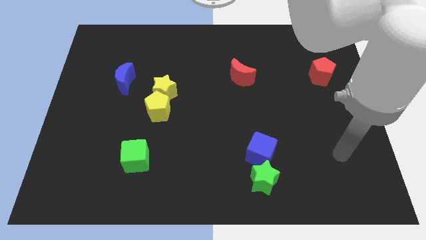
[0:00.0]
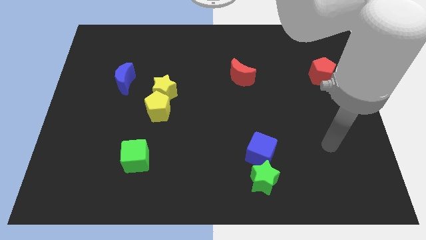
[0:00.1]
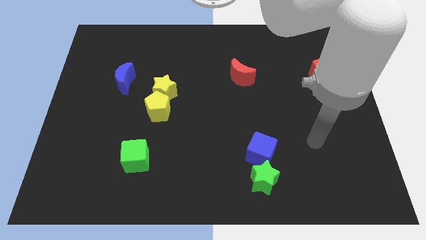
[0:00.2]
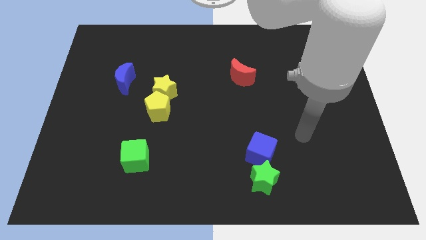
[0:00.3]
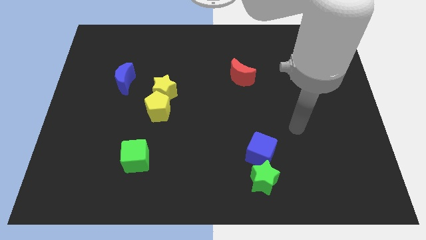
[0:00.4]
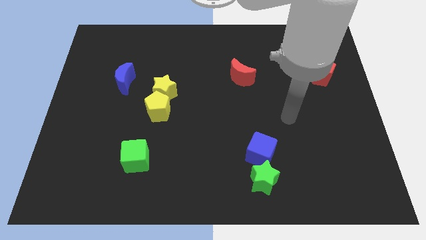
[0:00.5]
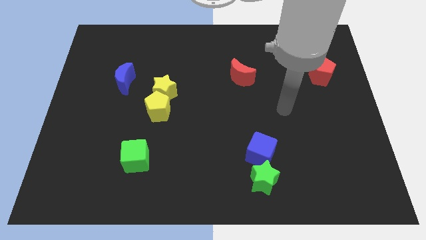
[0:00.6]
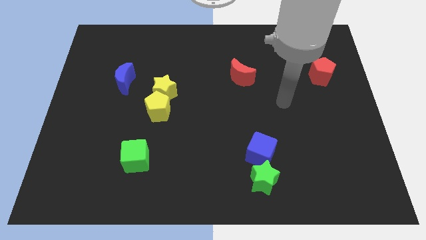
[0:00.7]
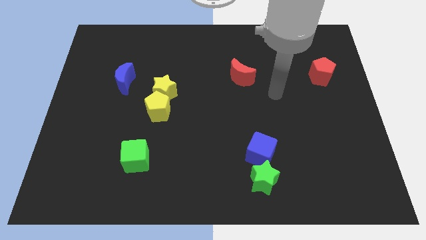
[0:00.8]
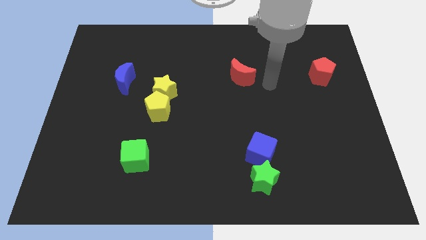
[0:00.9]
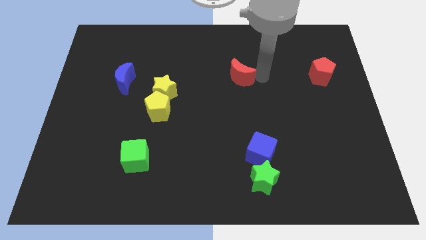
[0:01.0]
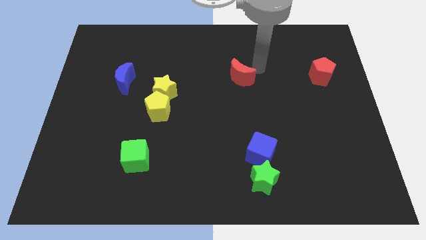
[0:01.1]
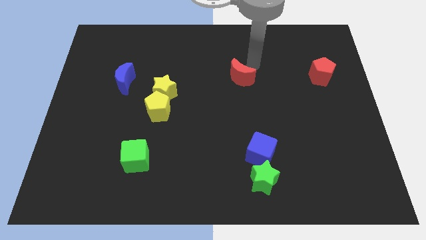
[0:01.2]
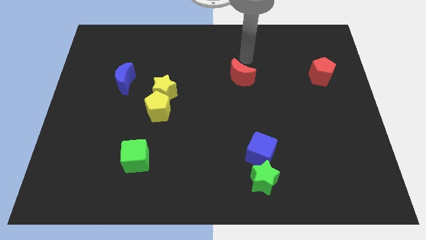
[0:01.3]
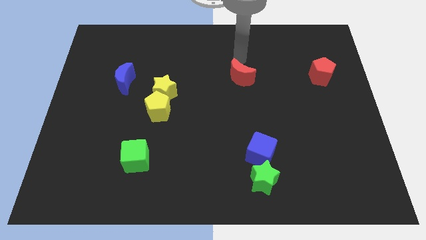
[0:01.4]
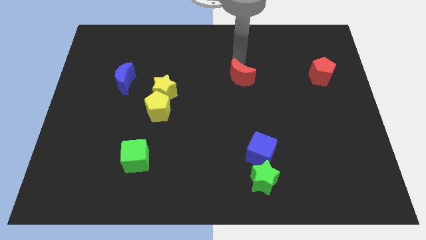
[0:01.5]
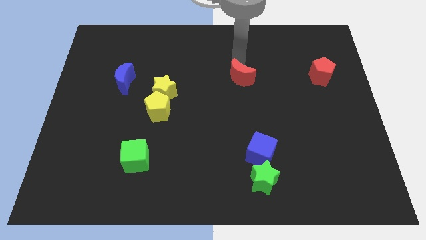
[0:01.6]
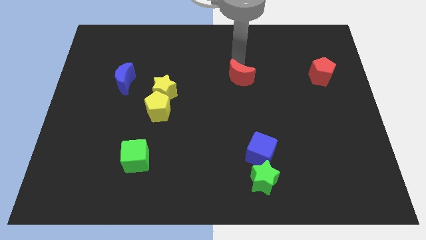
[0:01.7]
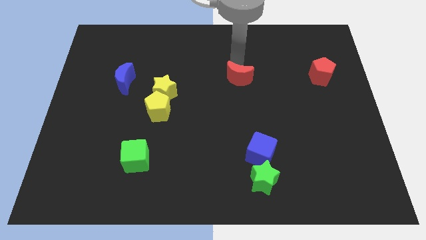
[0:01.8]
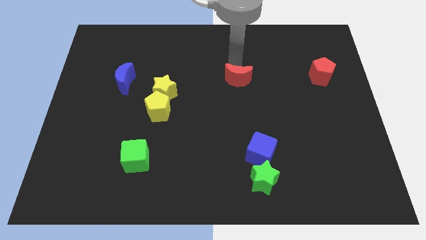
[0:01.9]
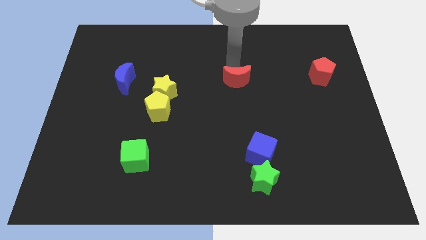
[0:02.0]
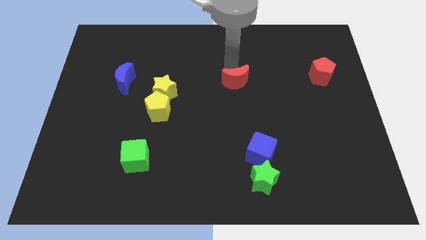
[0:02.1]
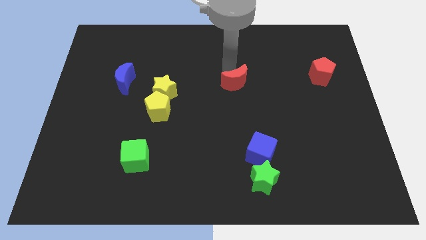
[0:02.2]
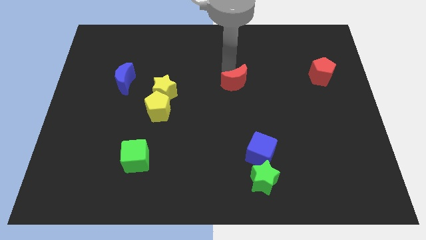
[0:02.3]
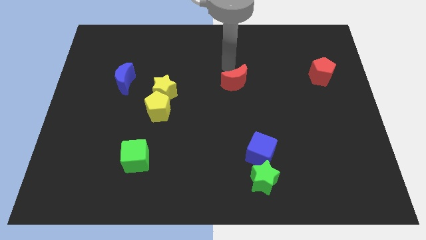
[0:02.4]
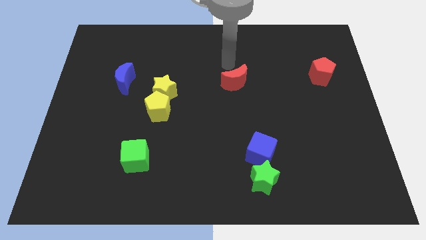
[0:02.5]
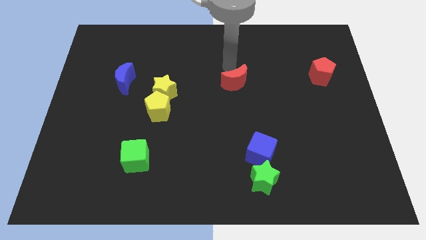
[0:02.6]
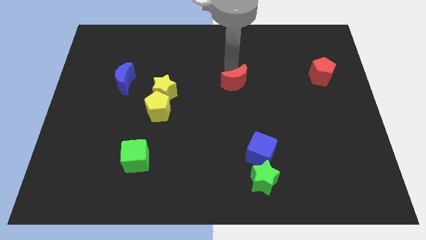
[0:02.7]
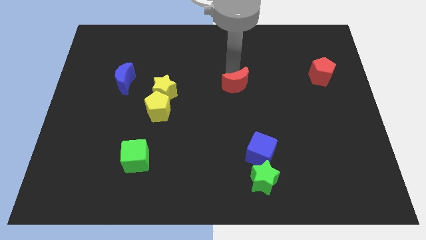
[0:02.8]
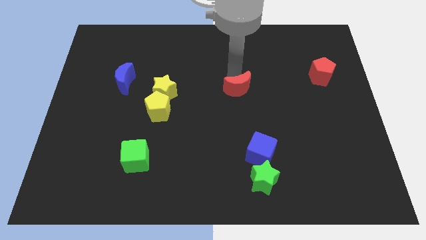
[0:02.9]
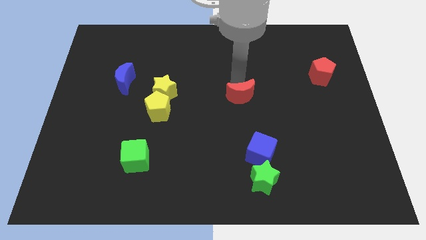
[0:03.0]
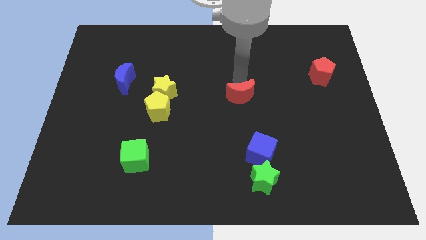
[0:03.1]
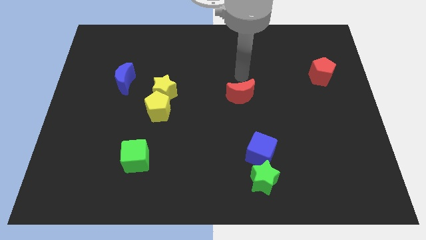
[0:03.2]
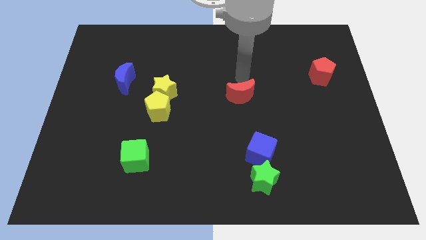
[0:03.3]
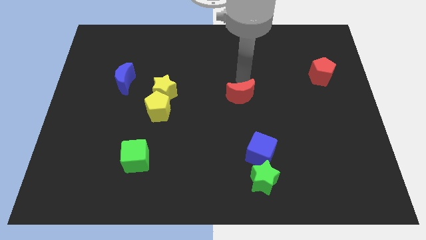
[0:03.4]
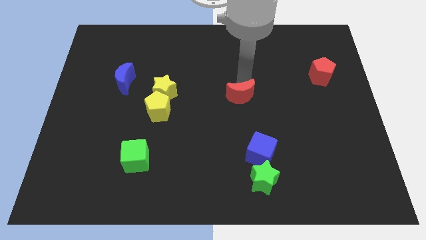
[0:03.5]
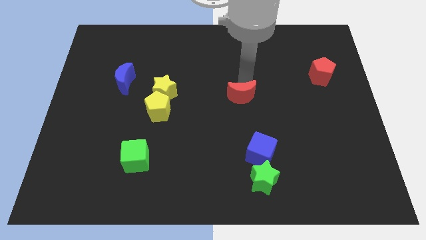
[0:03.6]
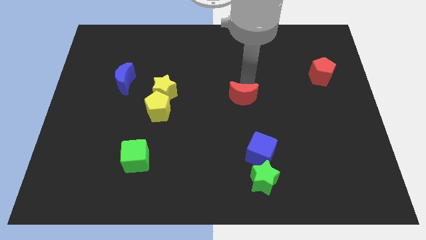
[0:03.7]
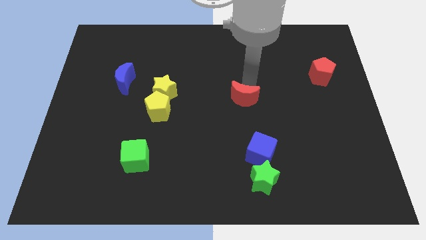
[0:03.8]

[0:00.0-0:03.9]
slide the red moon a bit downwards

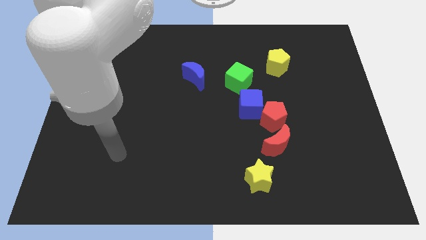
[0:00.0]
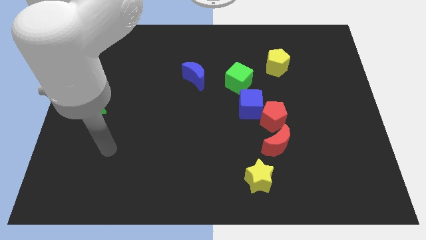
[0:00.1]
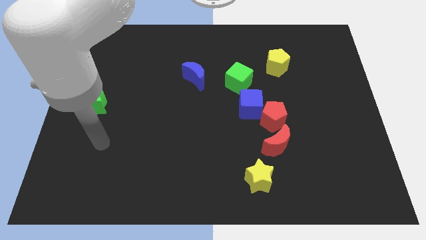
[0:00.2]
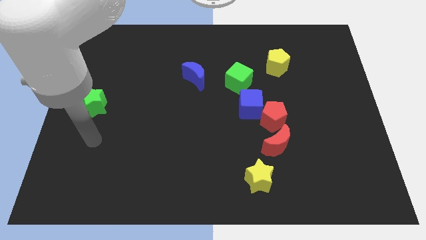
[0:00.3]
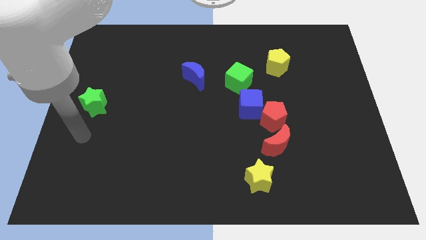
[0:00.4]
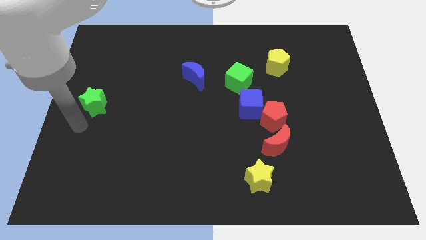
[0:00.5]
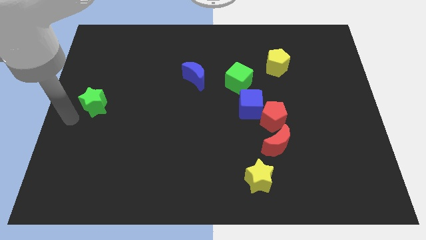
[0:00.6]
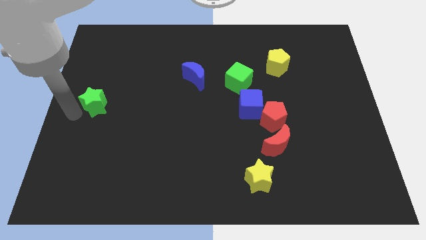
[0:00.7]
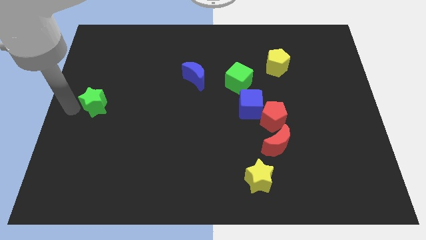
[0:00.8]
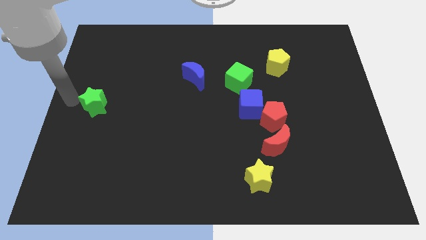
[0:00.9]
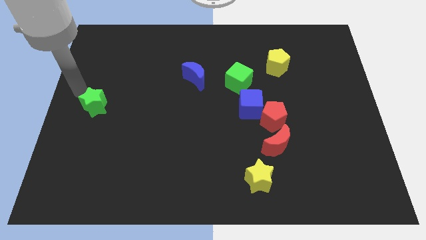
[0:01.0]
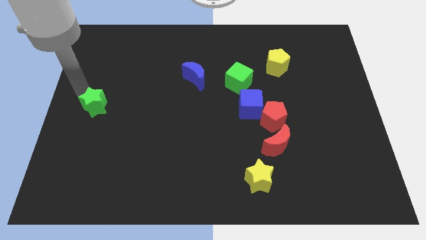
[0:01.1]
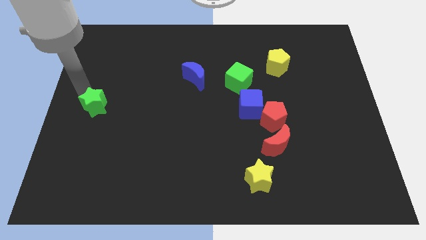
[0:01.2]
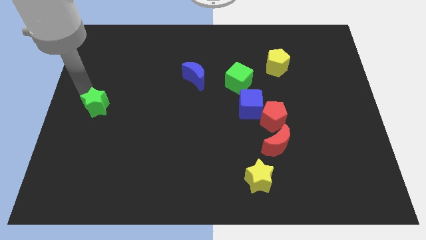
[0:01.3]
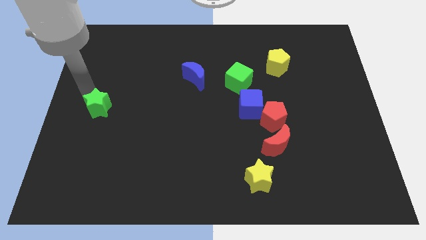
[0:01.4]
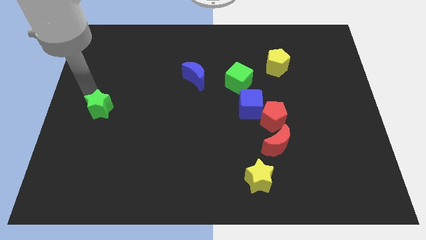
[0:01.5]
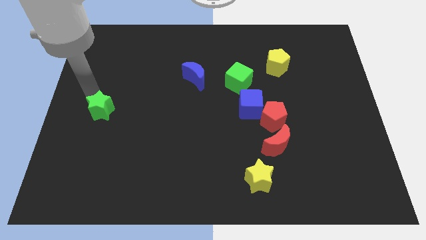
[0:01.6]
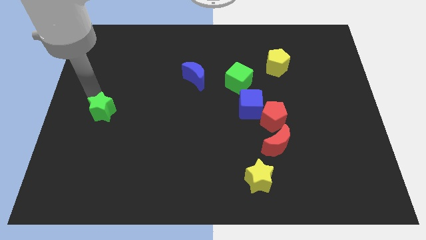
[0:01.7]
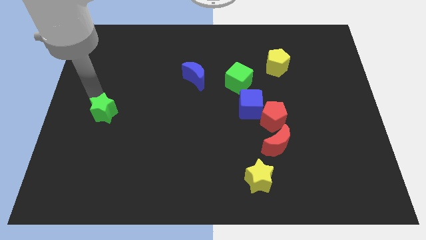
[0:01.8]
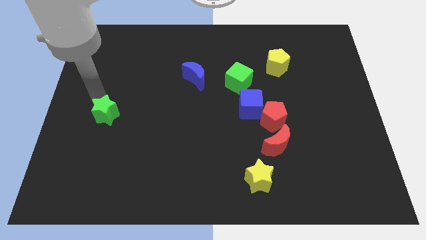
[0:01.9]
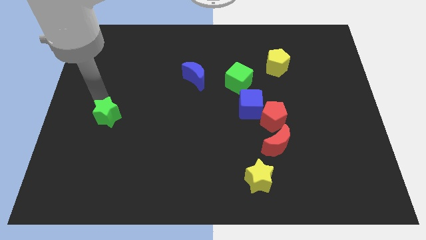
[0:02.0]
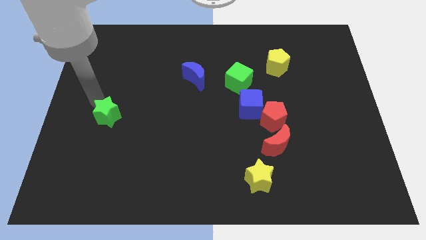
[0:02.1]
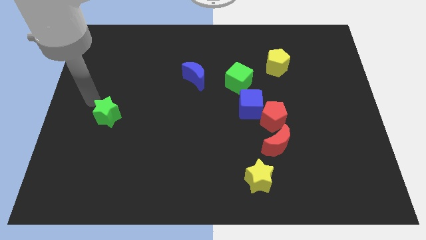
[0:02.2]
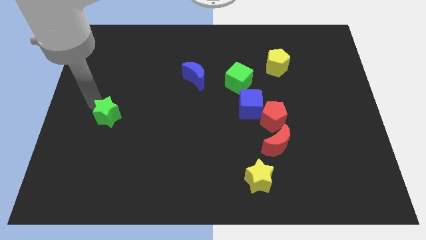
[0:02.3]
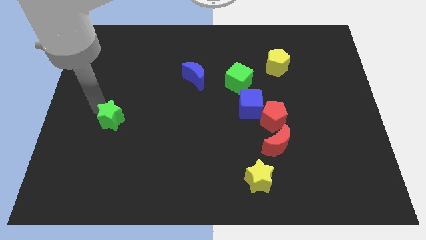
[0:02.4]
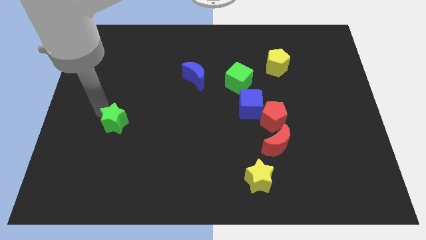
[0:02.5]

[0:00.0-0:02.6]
slide the green star slightly downwards and right

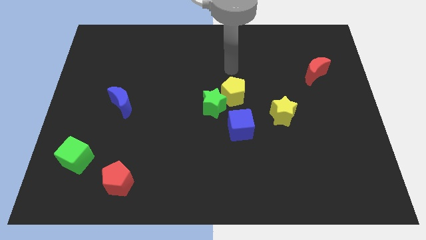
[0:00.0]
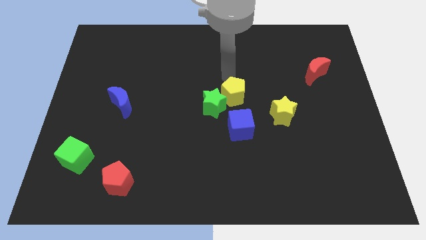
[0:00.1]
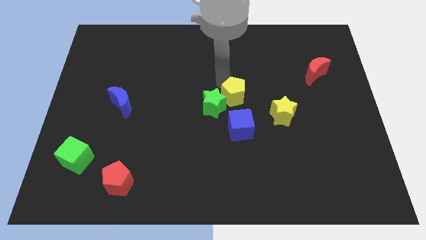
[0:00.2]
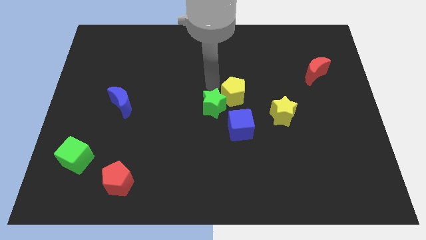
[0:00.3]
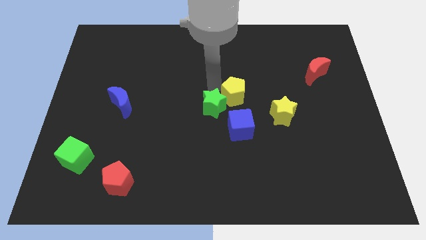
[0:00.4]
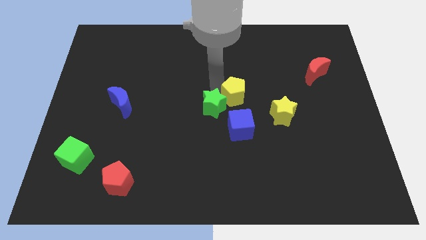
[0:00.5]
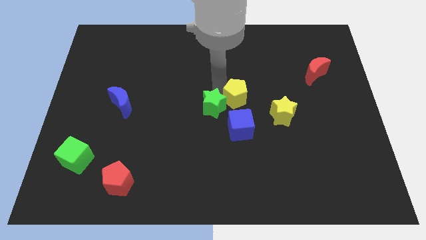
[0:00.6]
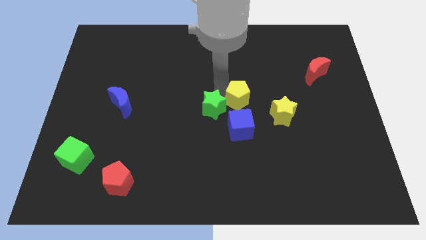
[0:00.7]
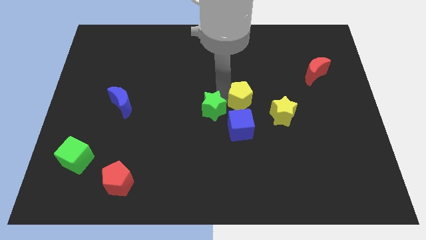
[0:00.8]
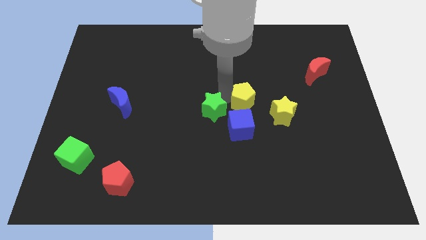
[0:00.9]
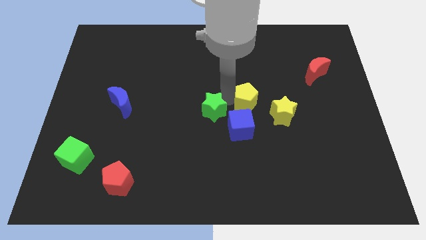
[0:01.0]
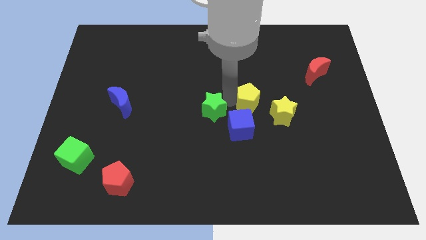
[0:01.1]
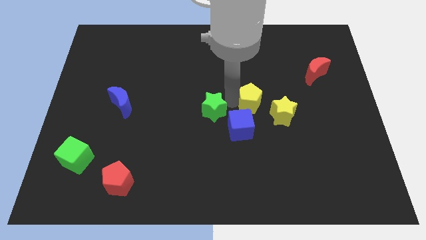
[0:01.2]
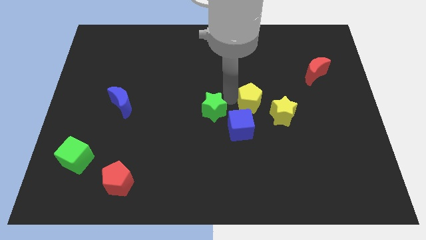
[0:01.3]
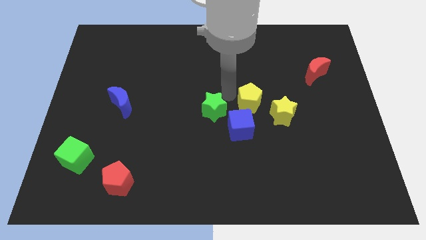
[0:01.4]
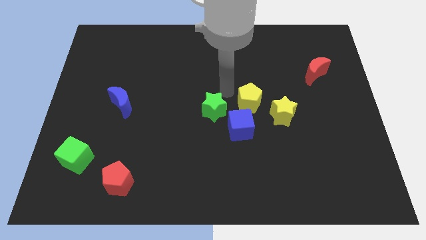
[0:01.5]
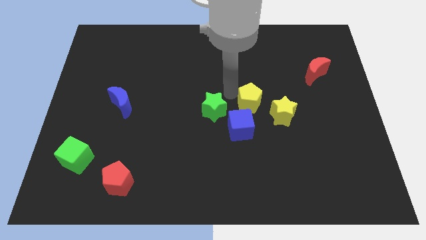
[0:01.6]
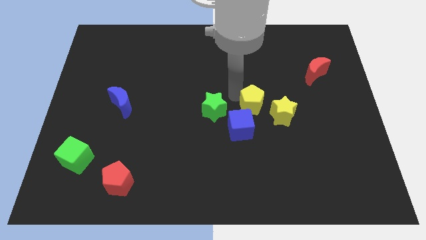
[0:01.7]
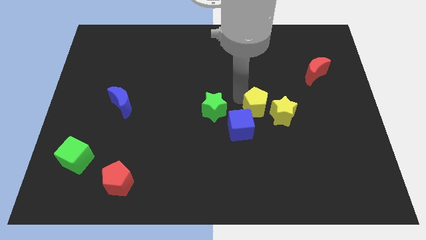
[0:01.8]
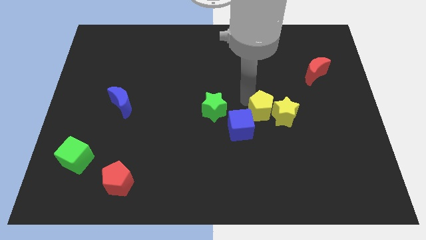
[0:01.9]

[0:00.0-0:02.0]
slightly slide the yellow pentagon diagonally downwards and right
